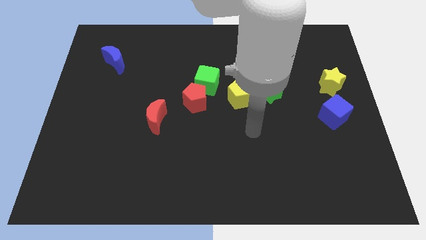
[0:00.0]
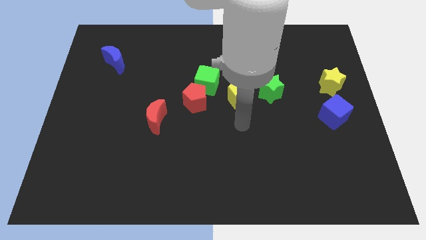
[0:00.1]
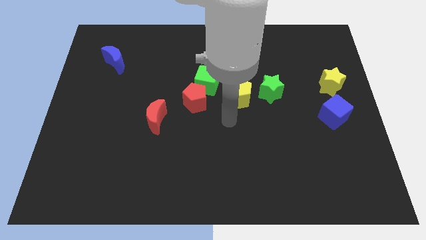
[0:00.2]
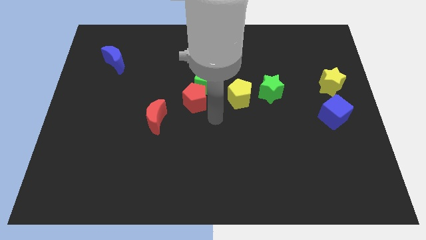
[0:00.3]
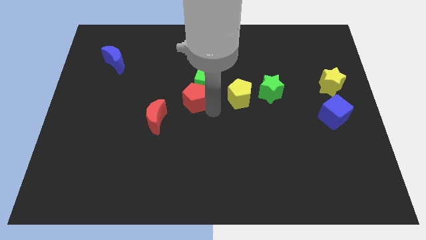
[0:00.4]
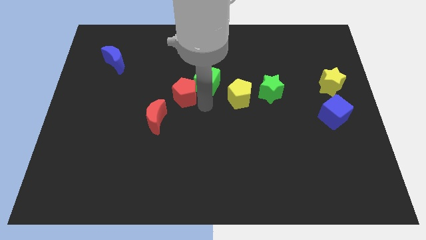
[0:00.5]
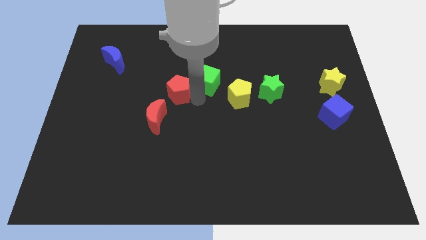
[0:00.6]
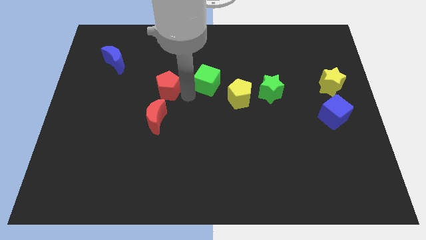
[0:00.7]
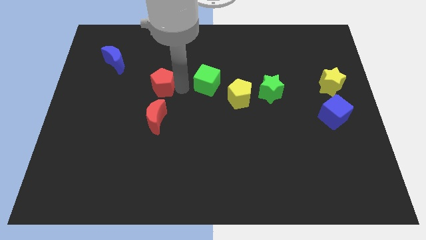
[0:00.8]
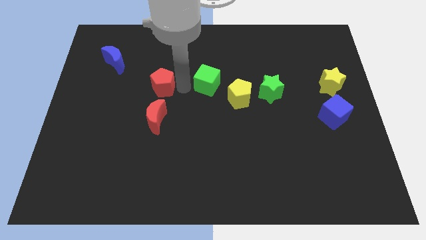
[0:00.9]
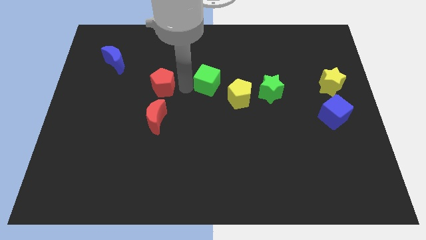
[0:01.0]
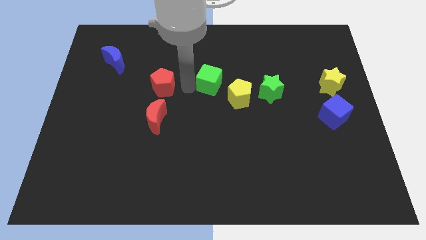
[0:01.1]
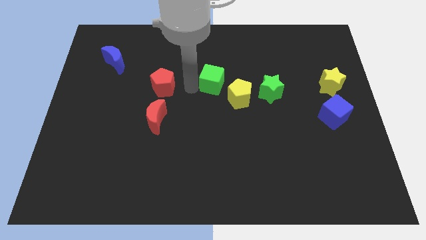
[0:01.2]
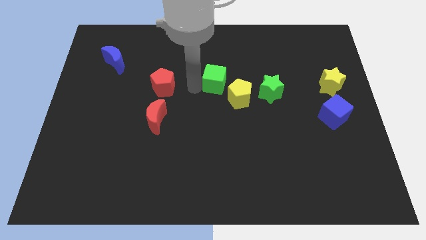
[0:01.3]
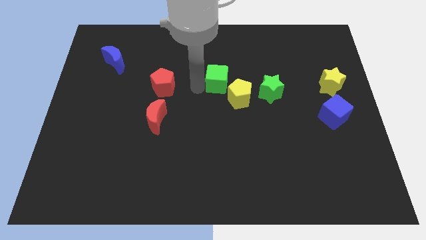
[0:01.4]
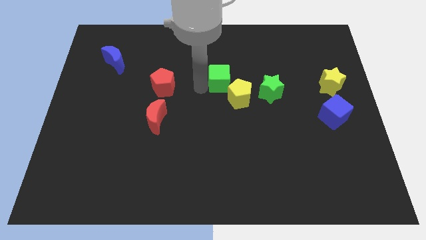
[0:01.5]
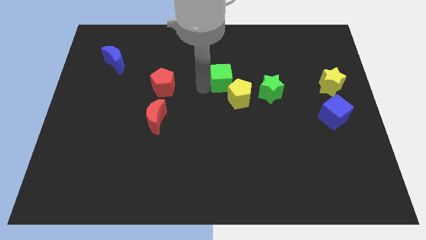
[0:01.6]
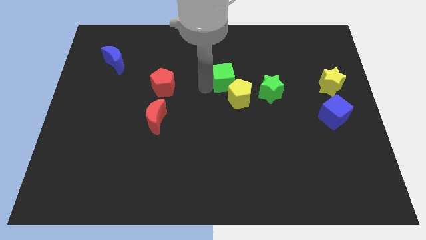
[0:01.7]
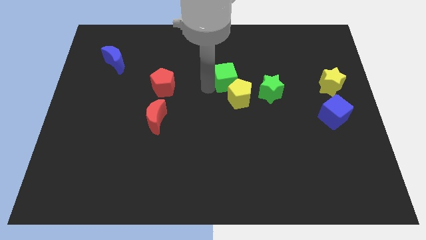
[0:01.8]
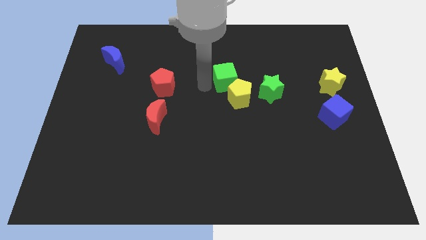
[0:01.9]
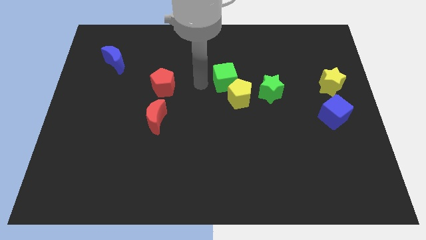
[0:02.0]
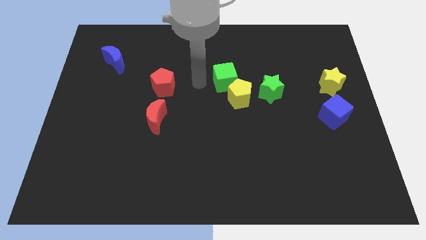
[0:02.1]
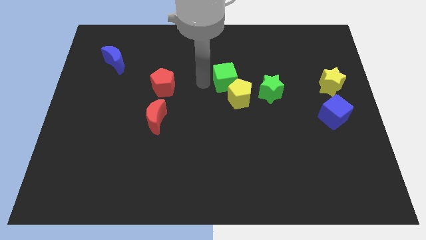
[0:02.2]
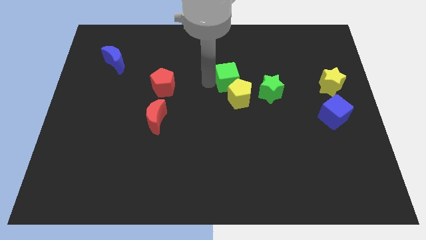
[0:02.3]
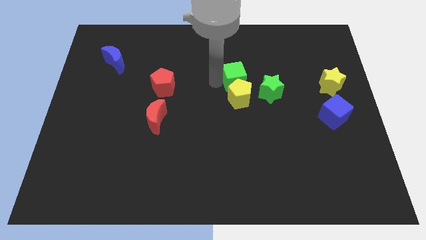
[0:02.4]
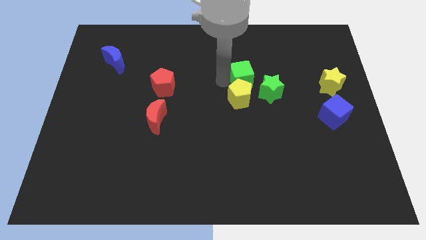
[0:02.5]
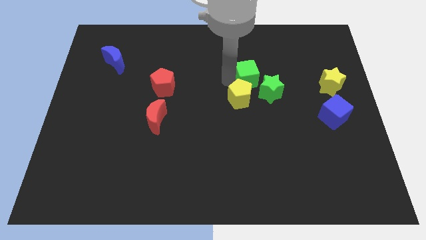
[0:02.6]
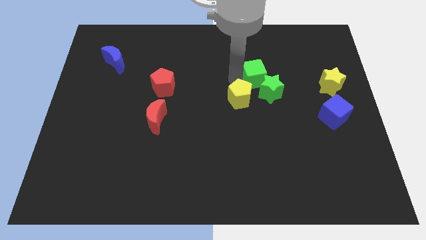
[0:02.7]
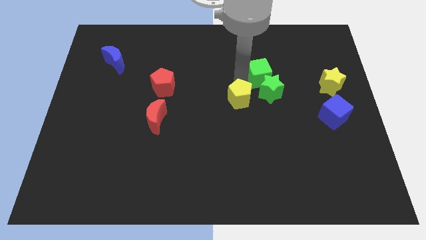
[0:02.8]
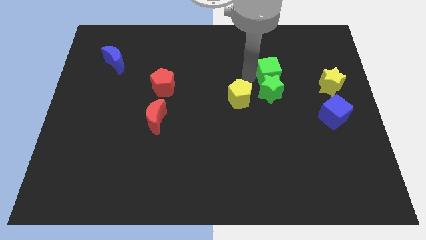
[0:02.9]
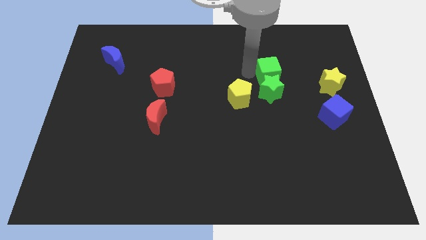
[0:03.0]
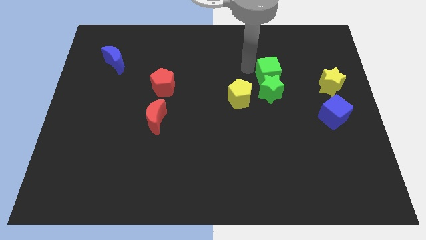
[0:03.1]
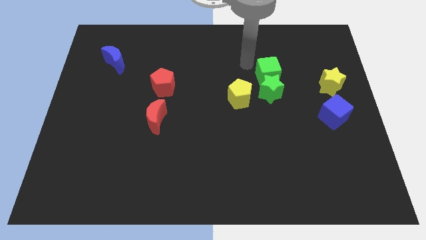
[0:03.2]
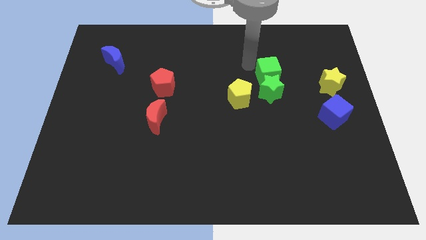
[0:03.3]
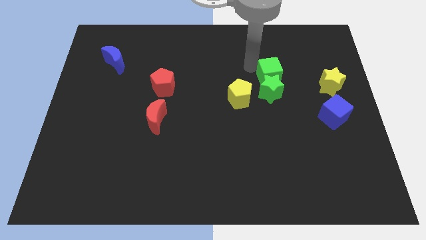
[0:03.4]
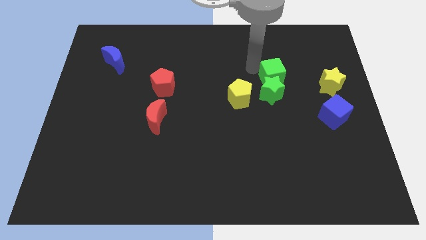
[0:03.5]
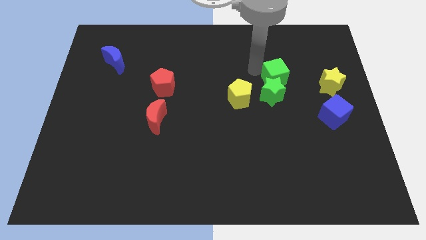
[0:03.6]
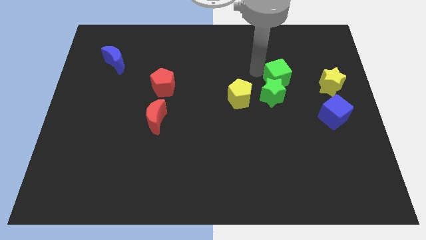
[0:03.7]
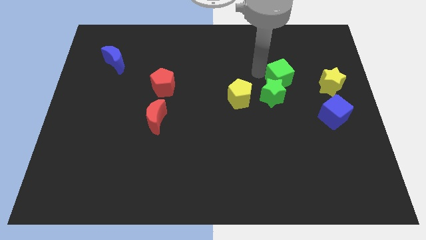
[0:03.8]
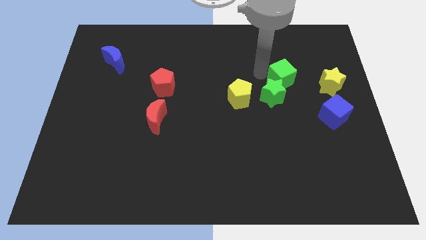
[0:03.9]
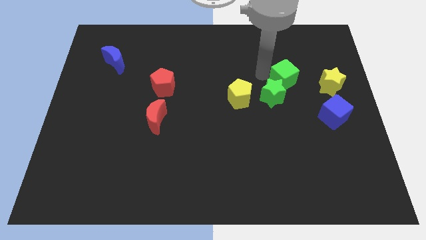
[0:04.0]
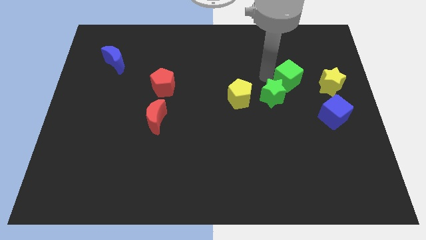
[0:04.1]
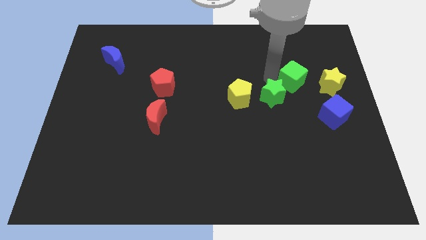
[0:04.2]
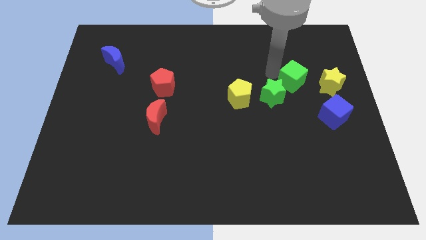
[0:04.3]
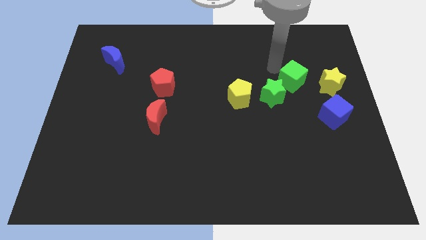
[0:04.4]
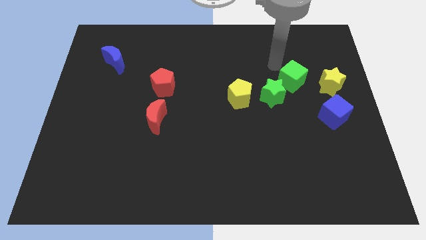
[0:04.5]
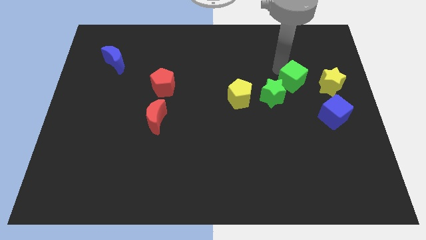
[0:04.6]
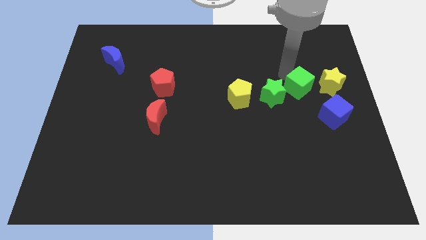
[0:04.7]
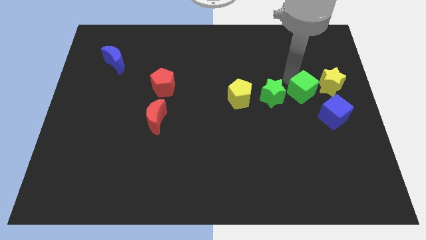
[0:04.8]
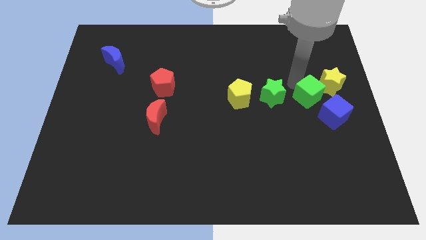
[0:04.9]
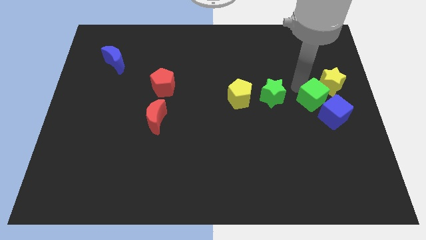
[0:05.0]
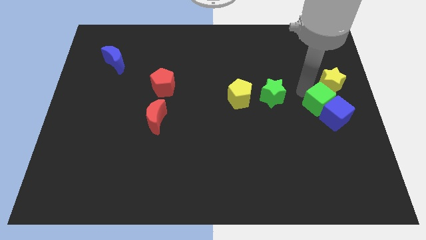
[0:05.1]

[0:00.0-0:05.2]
put the green cube close to the blue cube

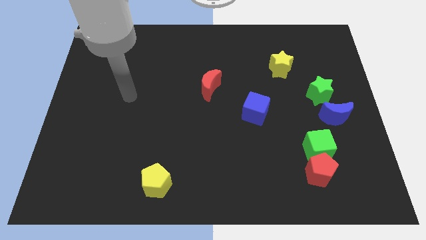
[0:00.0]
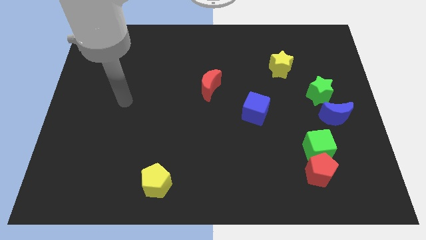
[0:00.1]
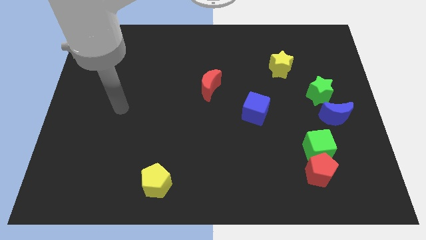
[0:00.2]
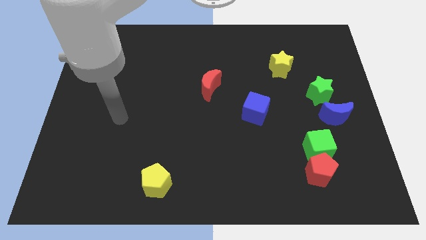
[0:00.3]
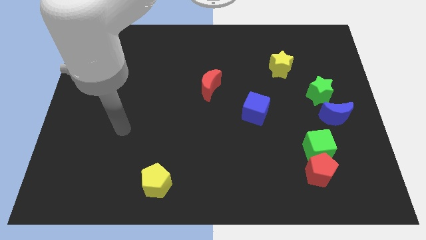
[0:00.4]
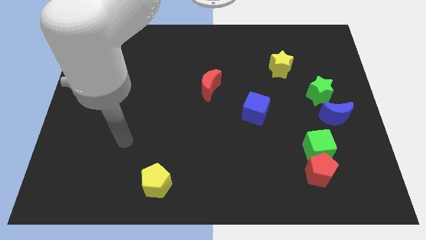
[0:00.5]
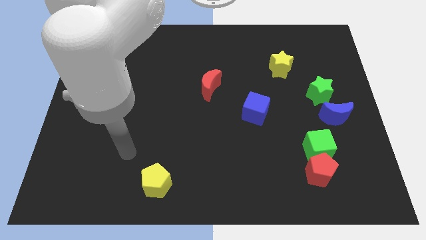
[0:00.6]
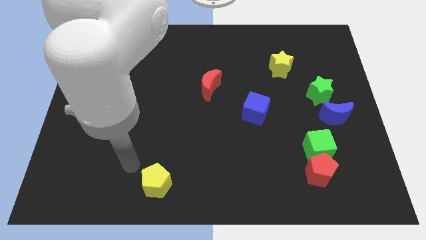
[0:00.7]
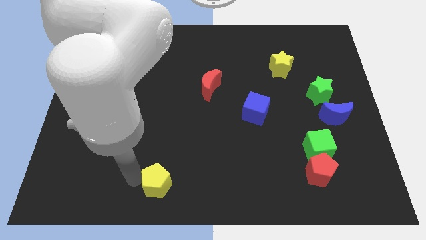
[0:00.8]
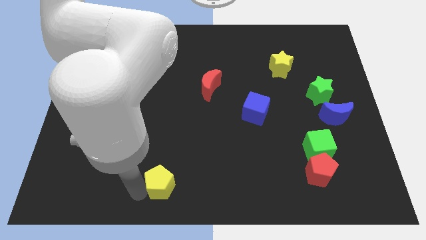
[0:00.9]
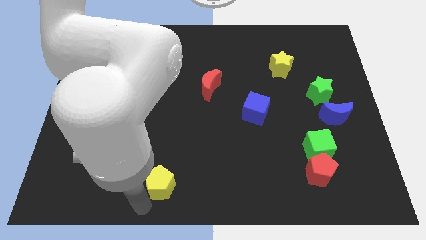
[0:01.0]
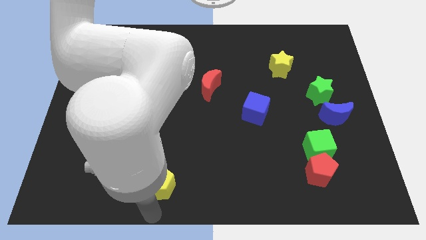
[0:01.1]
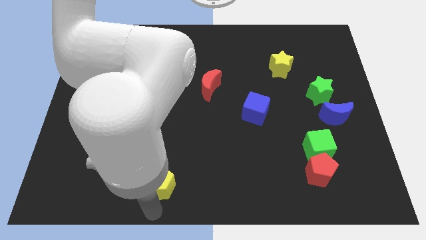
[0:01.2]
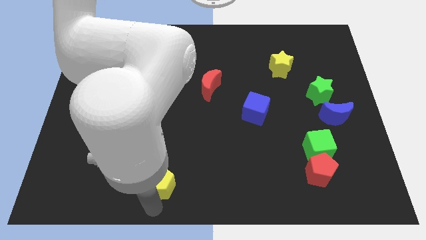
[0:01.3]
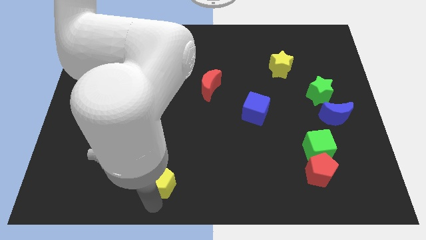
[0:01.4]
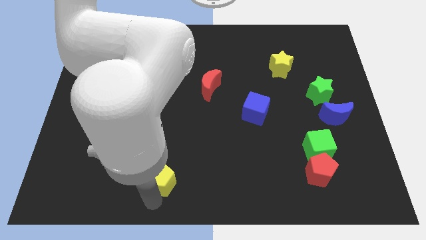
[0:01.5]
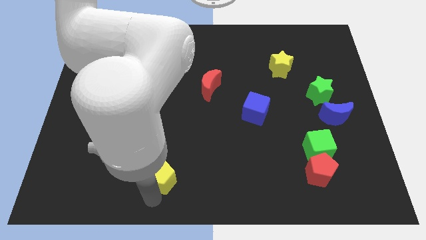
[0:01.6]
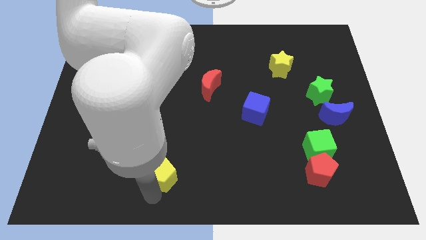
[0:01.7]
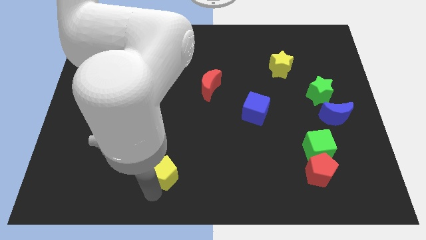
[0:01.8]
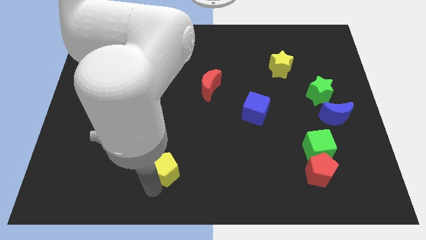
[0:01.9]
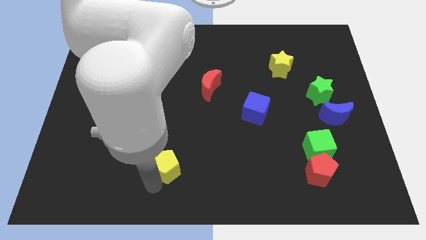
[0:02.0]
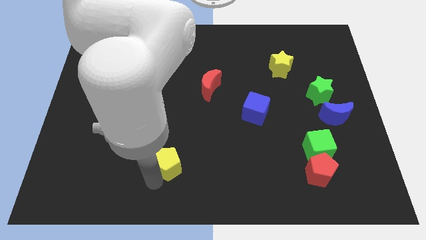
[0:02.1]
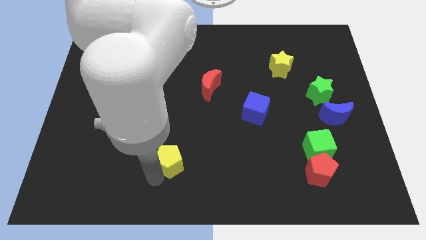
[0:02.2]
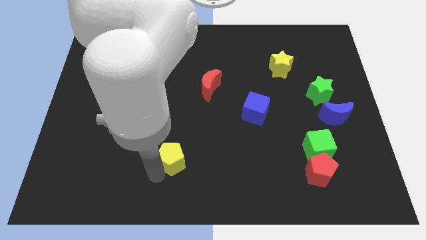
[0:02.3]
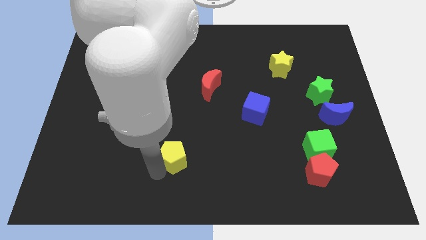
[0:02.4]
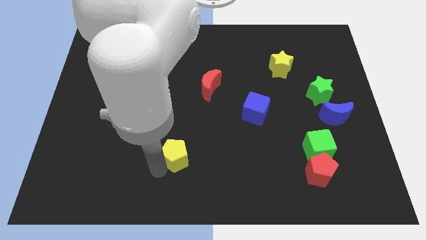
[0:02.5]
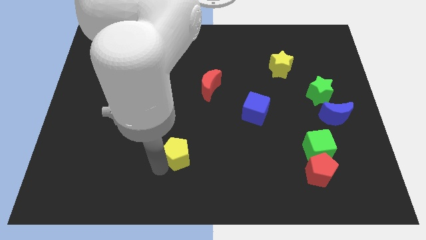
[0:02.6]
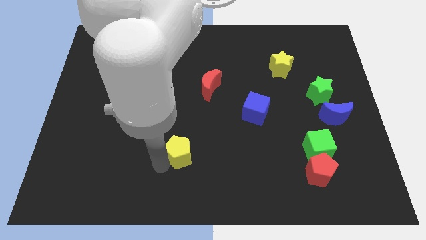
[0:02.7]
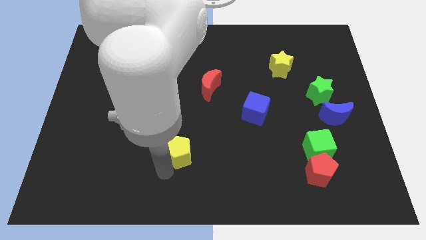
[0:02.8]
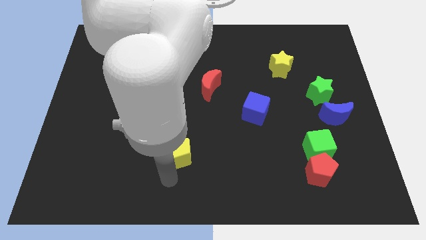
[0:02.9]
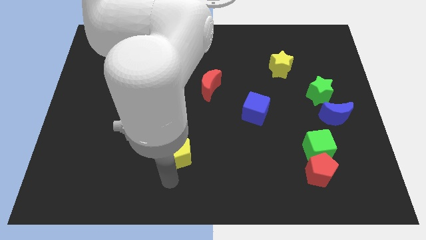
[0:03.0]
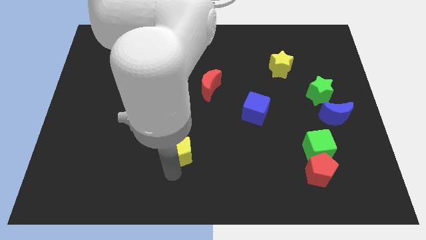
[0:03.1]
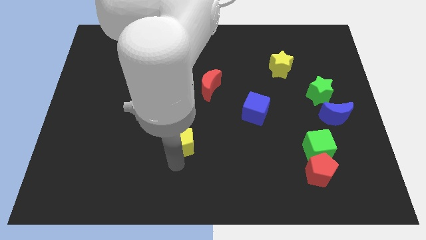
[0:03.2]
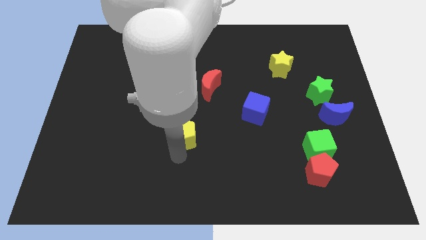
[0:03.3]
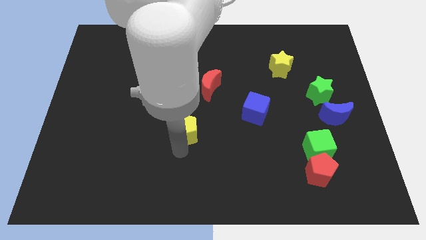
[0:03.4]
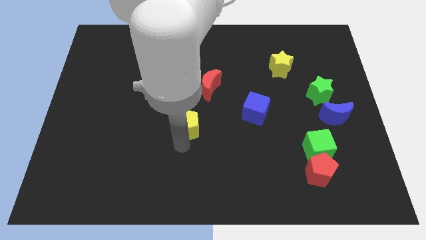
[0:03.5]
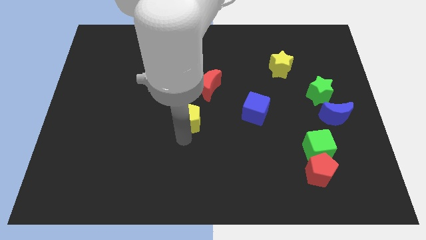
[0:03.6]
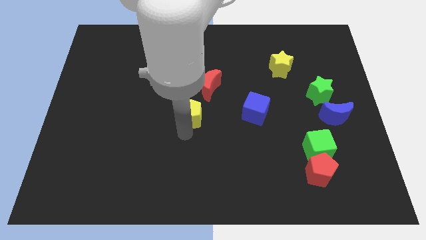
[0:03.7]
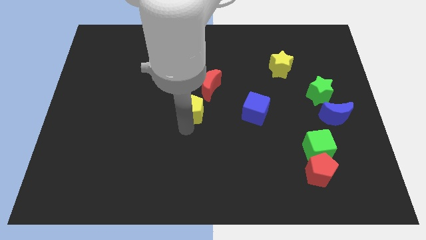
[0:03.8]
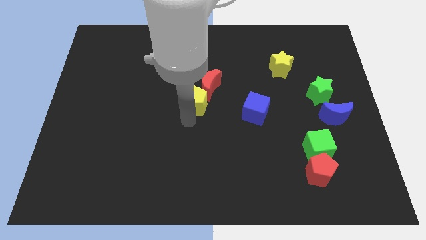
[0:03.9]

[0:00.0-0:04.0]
move the yellow pentagon to the red moon
